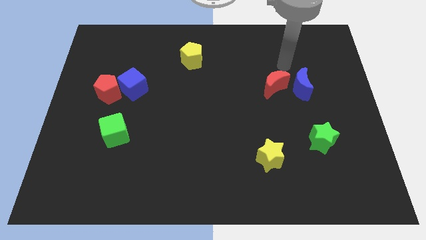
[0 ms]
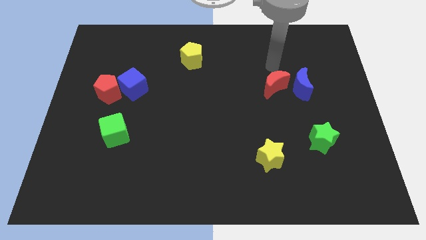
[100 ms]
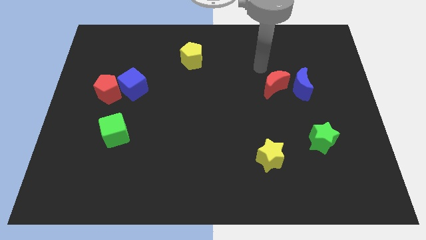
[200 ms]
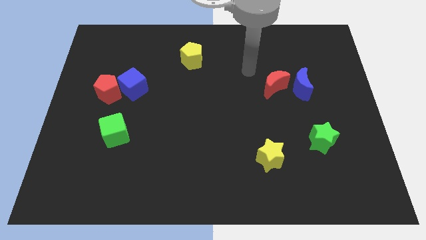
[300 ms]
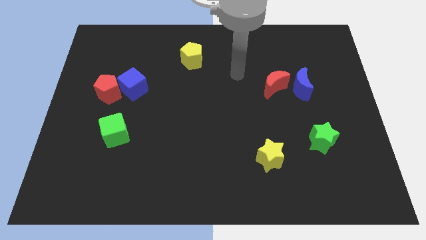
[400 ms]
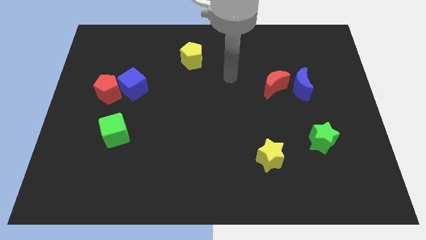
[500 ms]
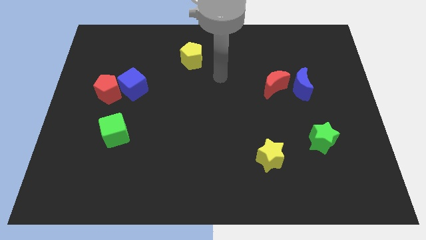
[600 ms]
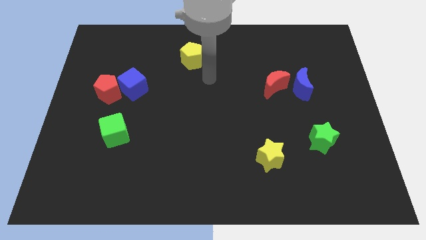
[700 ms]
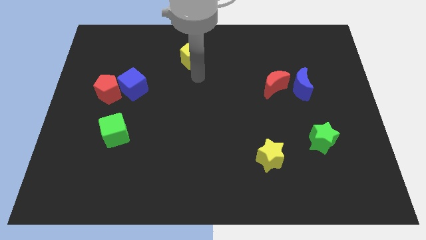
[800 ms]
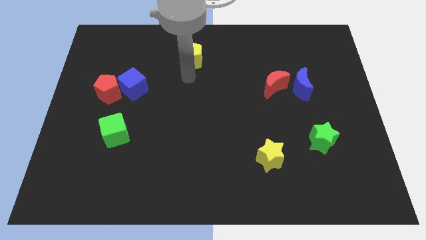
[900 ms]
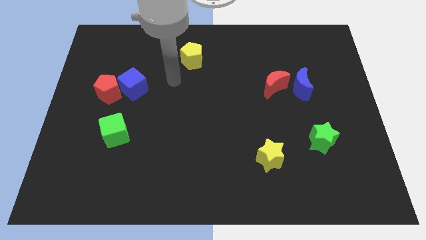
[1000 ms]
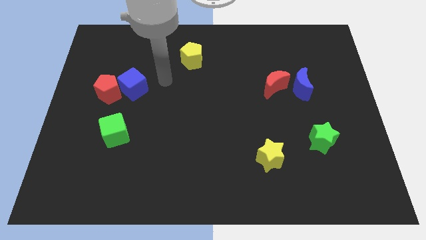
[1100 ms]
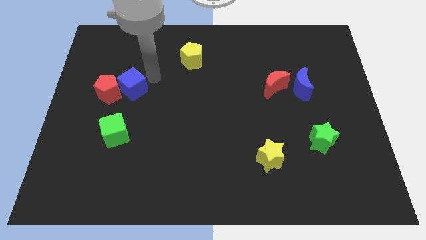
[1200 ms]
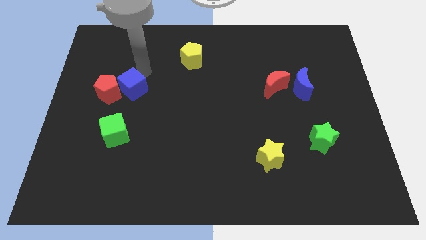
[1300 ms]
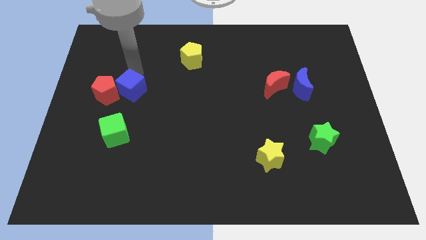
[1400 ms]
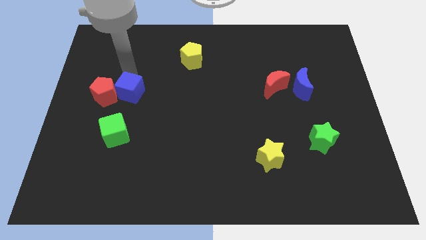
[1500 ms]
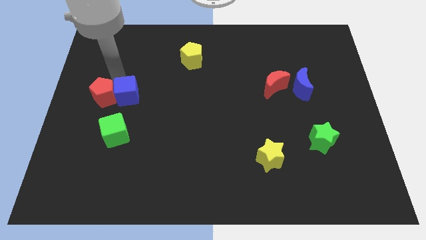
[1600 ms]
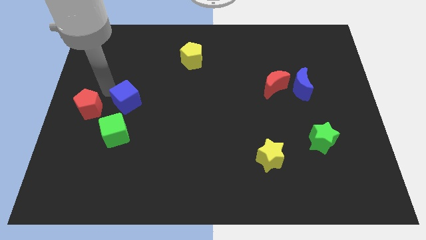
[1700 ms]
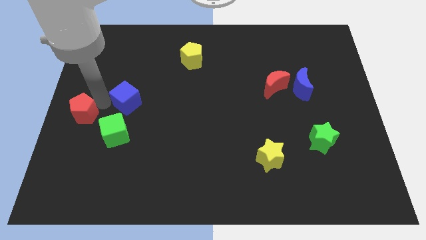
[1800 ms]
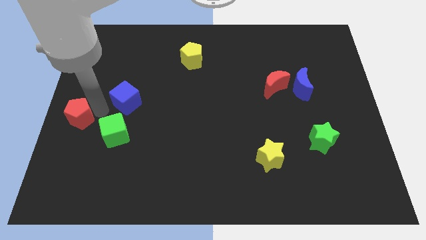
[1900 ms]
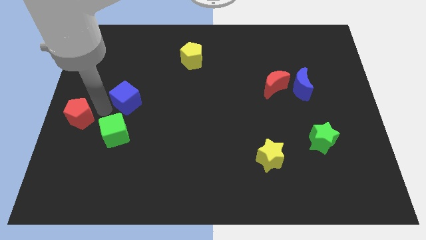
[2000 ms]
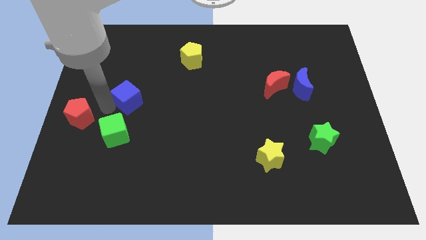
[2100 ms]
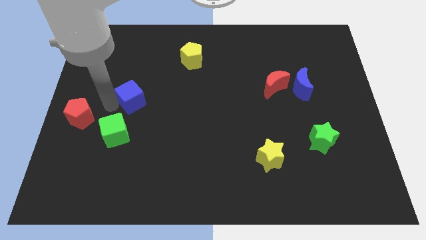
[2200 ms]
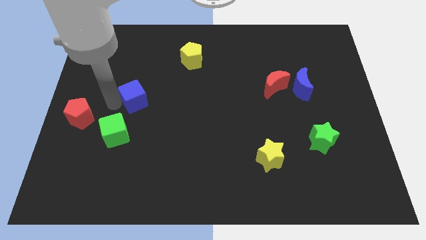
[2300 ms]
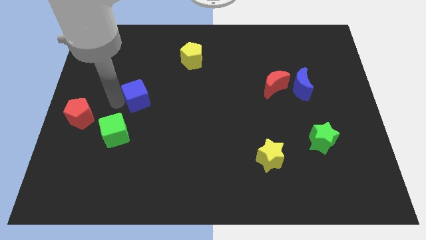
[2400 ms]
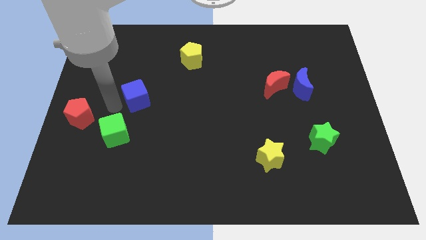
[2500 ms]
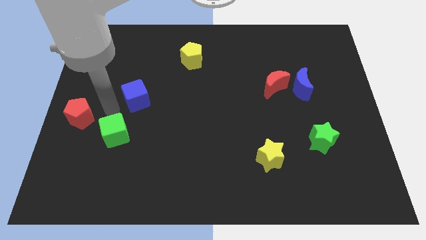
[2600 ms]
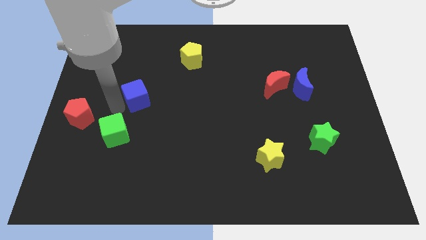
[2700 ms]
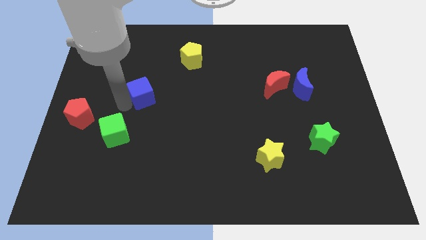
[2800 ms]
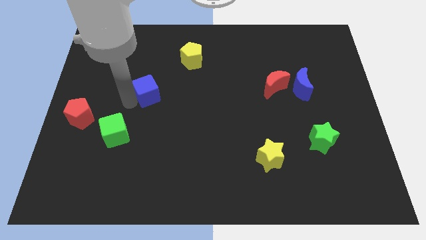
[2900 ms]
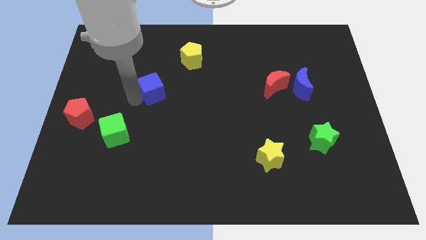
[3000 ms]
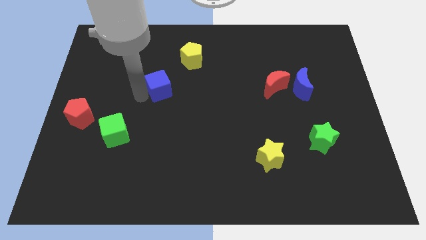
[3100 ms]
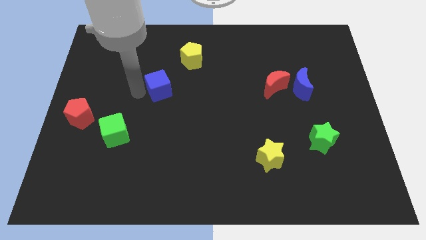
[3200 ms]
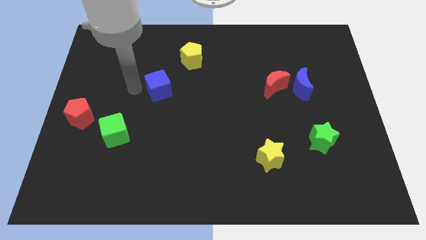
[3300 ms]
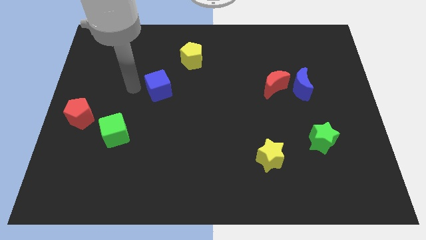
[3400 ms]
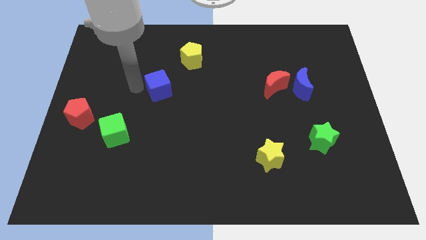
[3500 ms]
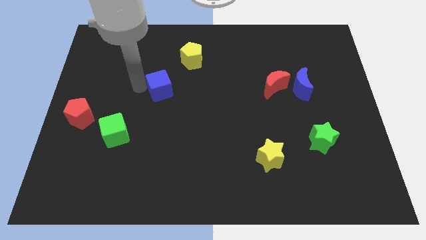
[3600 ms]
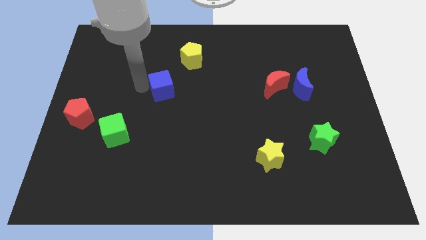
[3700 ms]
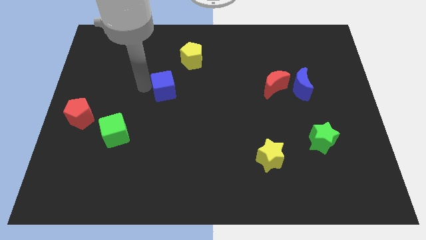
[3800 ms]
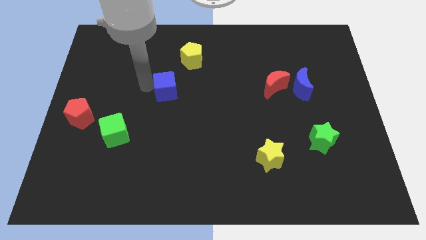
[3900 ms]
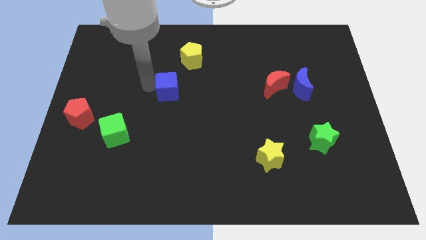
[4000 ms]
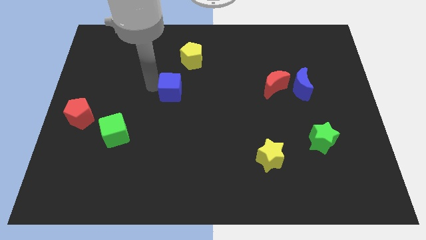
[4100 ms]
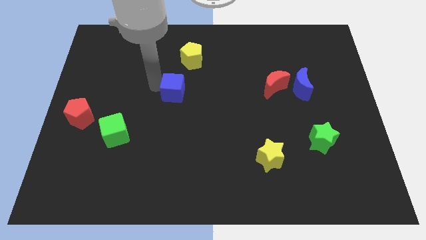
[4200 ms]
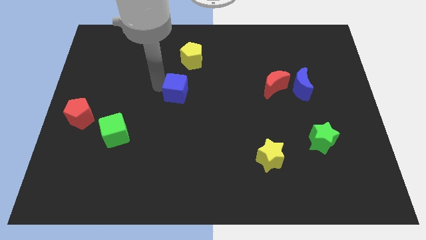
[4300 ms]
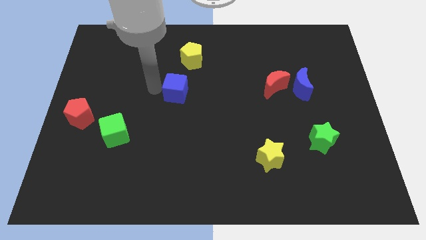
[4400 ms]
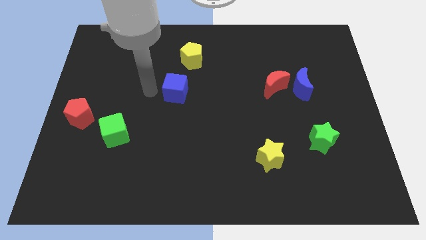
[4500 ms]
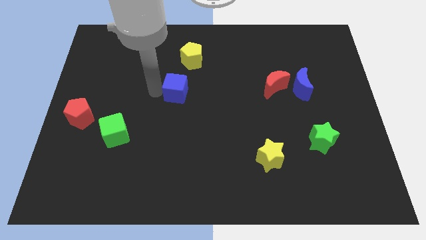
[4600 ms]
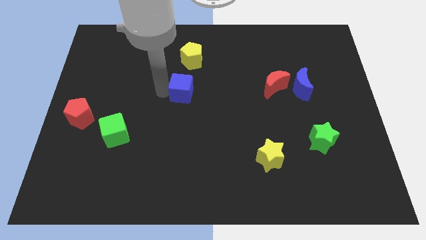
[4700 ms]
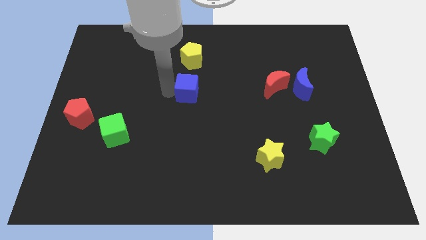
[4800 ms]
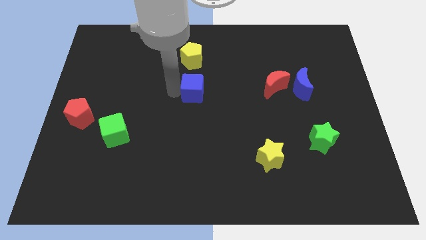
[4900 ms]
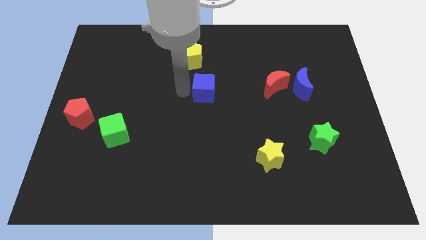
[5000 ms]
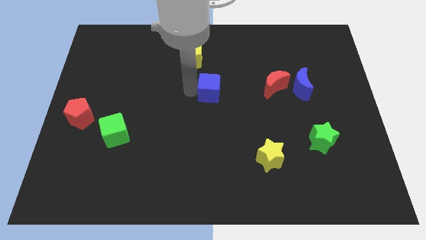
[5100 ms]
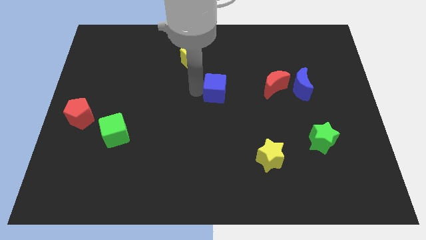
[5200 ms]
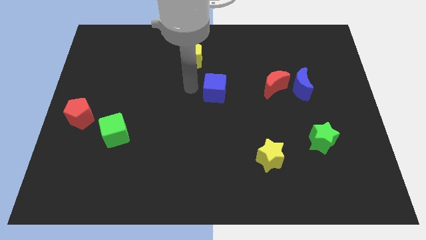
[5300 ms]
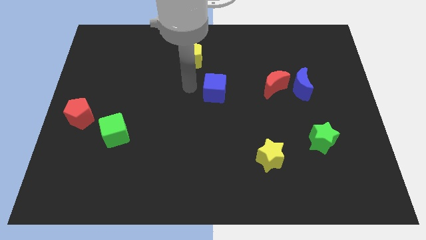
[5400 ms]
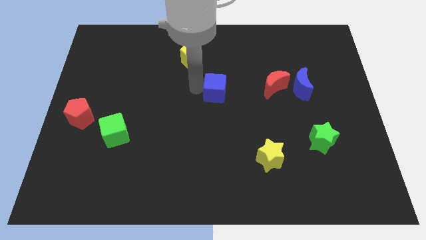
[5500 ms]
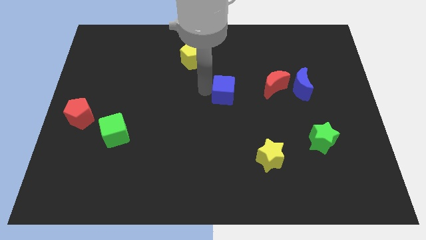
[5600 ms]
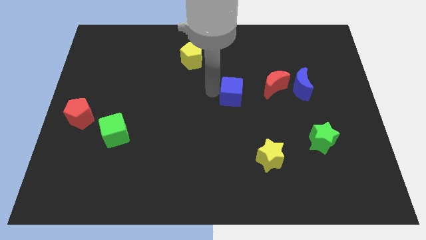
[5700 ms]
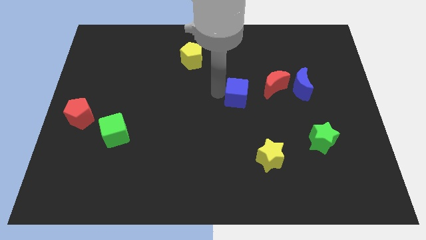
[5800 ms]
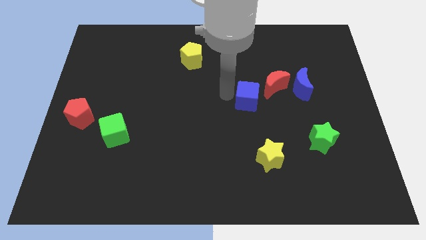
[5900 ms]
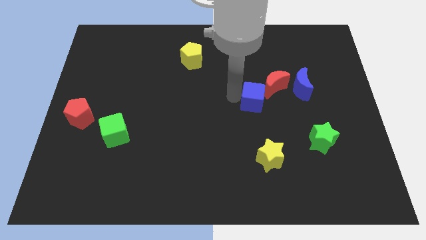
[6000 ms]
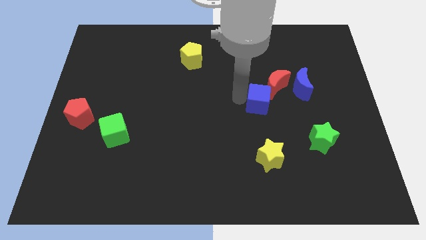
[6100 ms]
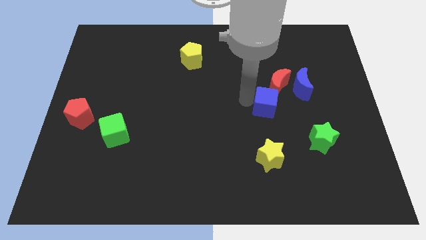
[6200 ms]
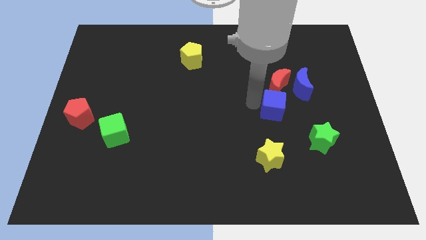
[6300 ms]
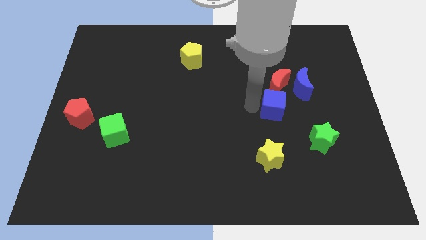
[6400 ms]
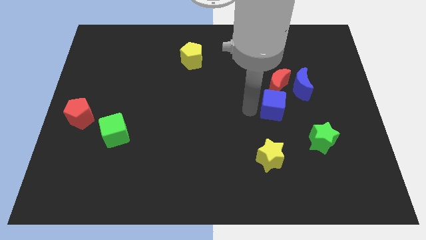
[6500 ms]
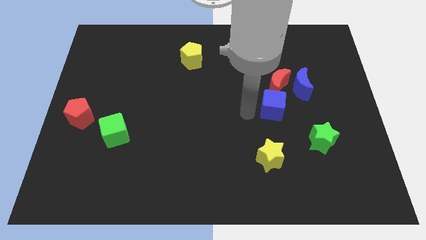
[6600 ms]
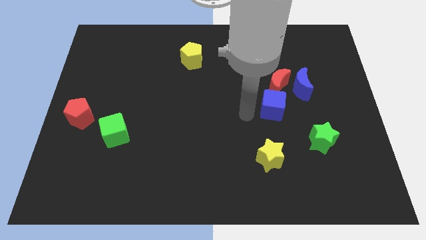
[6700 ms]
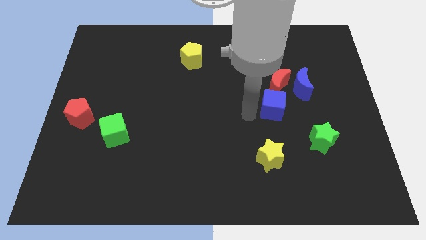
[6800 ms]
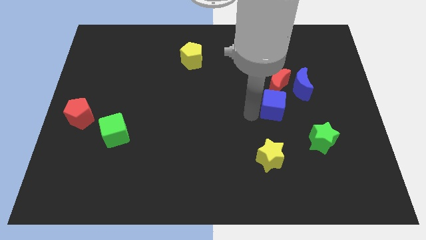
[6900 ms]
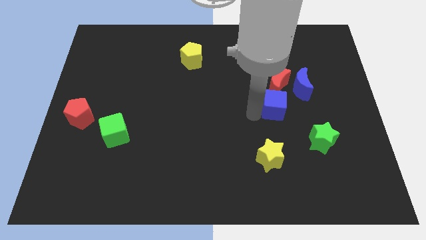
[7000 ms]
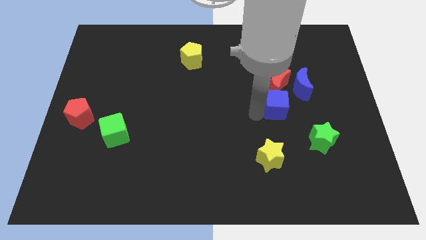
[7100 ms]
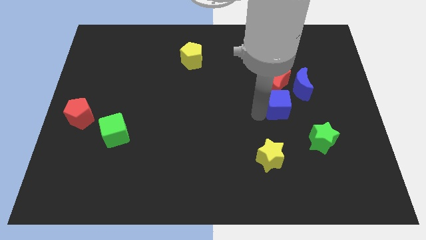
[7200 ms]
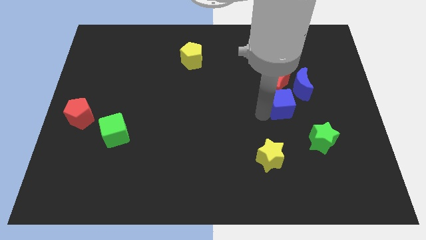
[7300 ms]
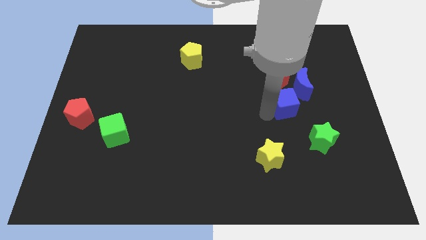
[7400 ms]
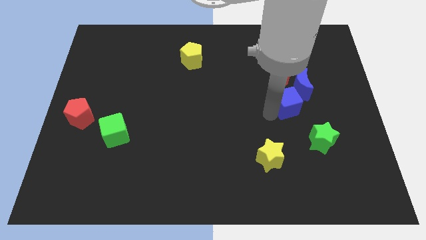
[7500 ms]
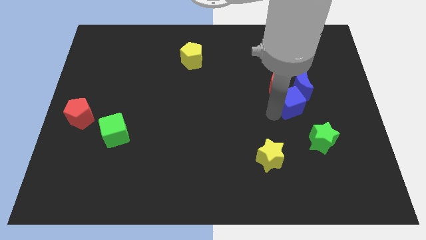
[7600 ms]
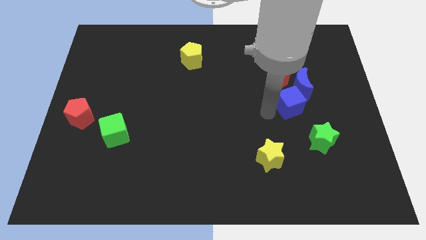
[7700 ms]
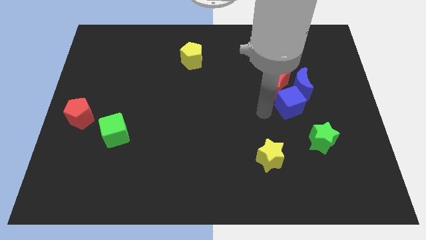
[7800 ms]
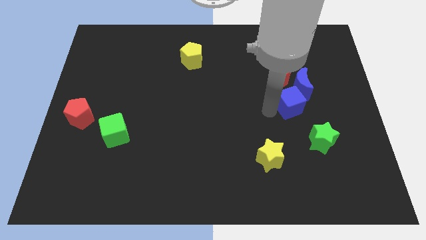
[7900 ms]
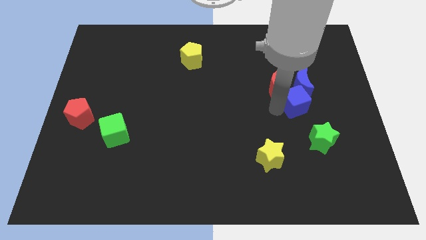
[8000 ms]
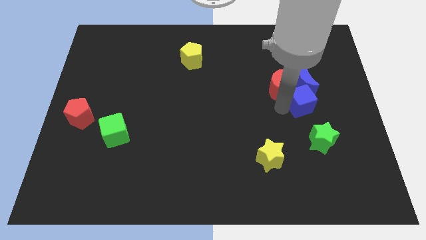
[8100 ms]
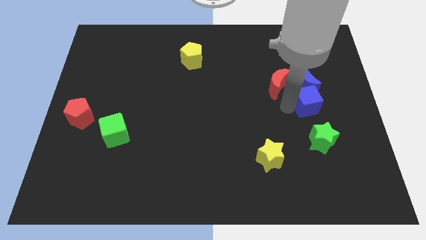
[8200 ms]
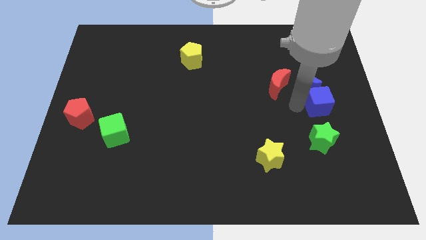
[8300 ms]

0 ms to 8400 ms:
put the blue cube to the right side
